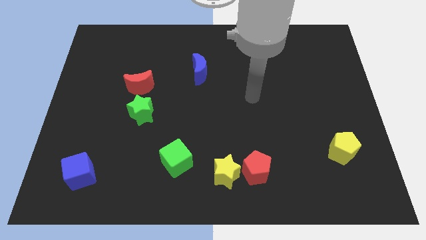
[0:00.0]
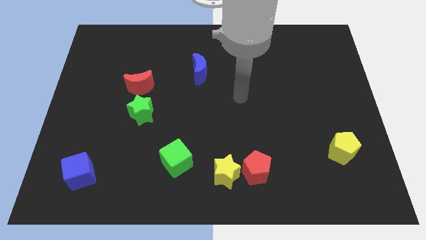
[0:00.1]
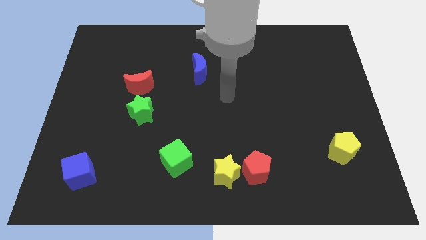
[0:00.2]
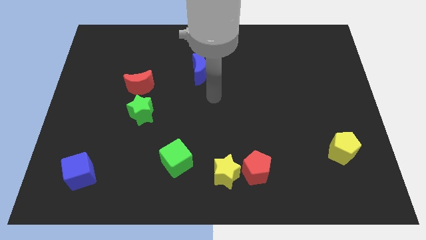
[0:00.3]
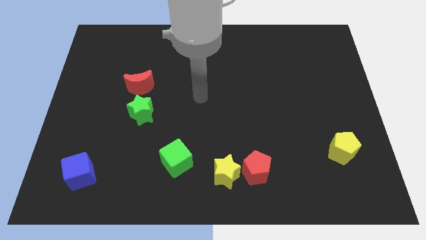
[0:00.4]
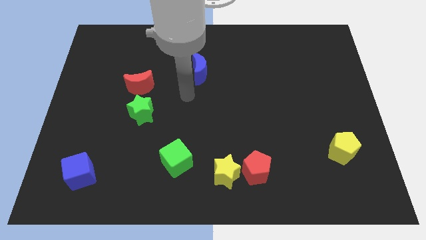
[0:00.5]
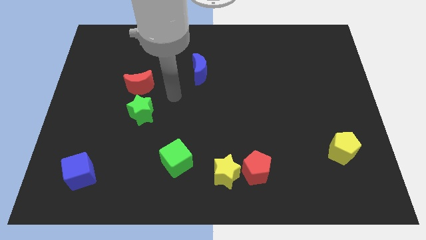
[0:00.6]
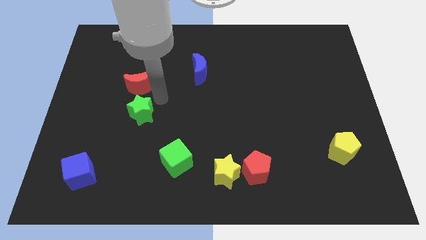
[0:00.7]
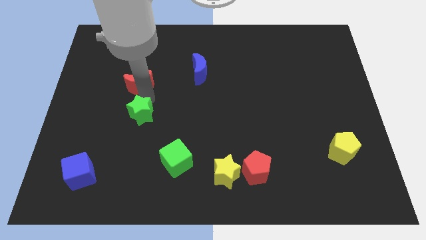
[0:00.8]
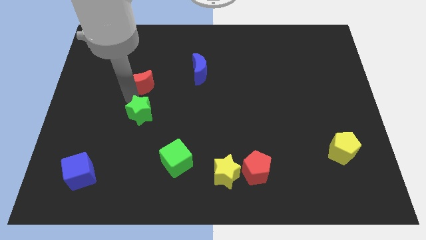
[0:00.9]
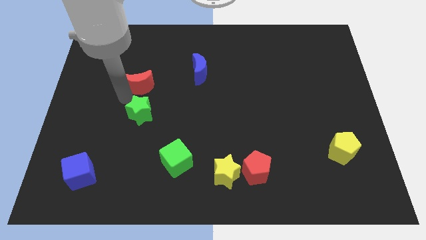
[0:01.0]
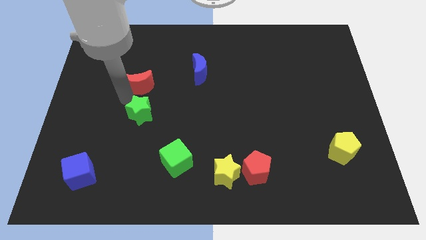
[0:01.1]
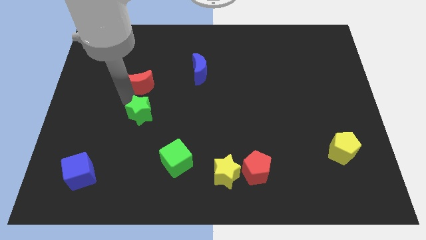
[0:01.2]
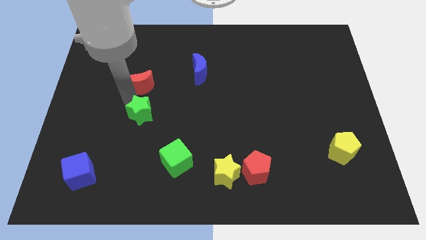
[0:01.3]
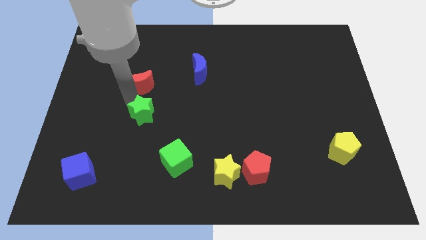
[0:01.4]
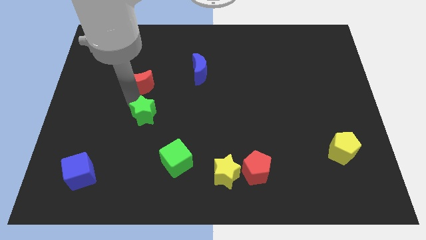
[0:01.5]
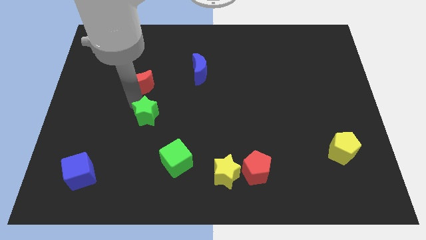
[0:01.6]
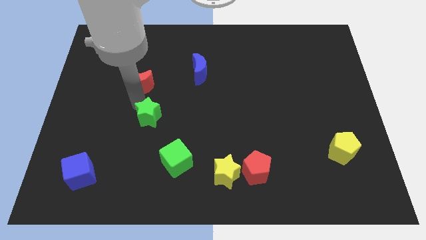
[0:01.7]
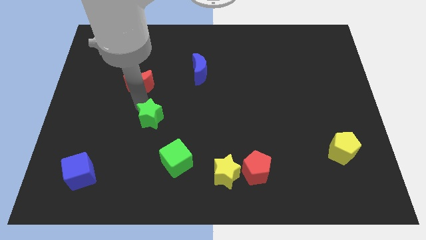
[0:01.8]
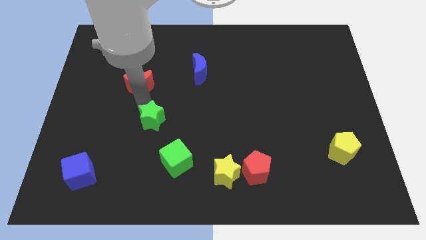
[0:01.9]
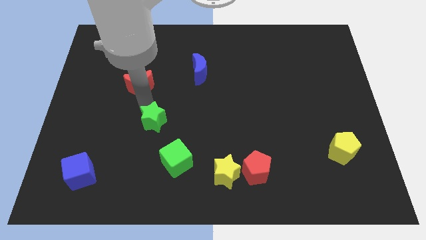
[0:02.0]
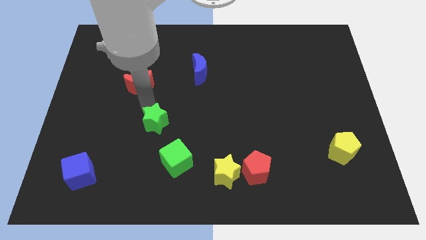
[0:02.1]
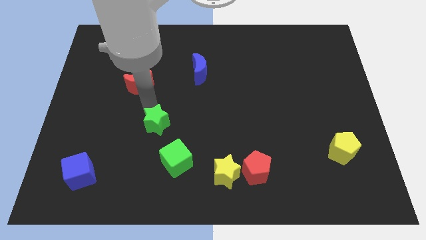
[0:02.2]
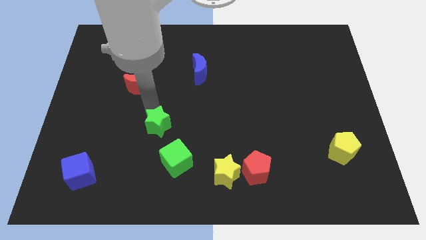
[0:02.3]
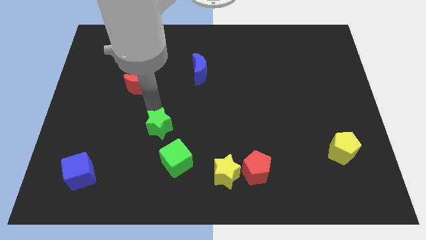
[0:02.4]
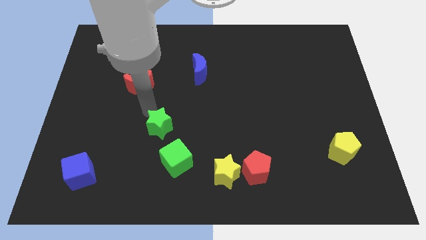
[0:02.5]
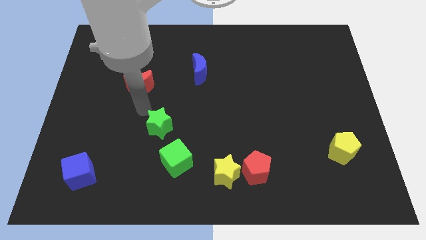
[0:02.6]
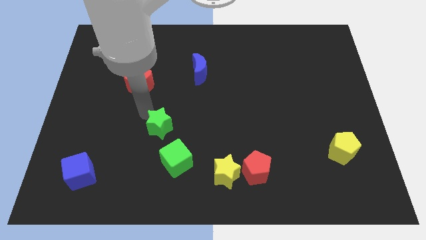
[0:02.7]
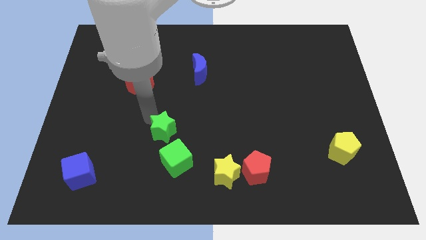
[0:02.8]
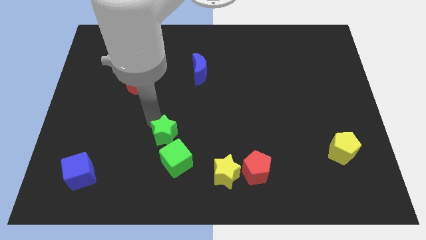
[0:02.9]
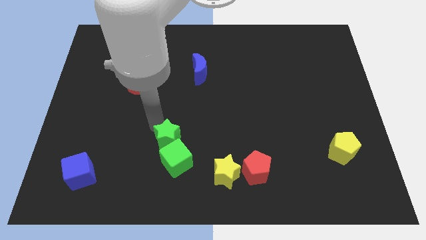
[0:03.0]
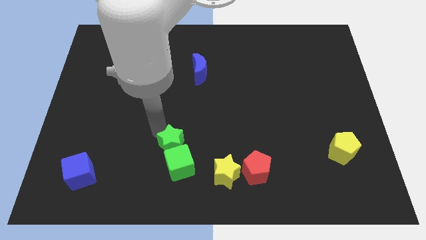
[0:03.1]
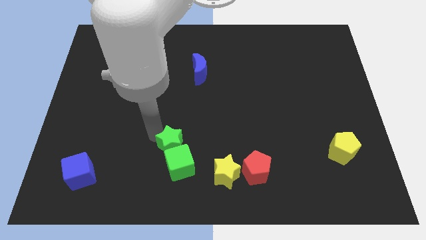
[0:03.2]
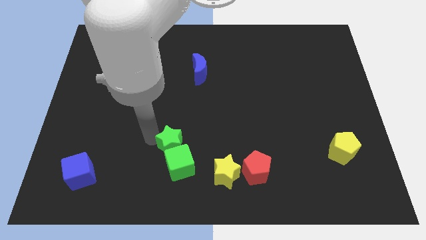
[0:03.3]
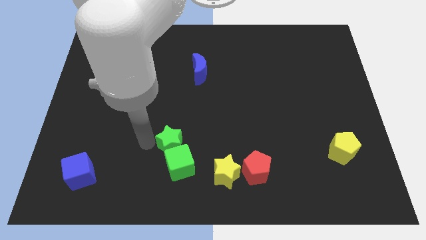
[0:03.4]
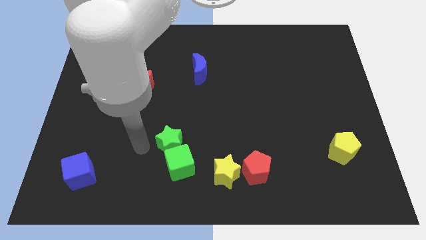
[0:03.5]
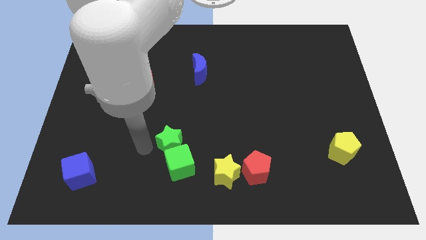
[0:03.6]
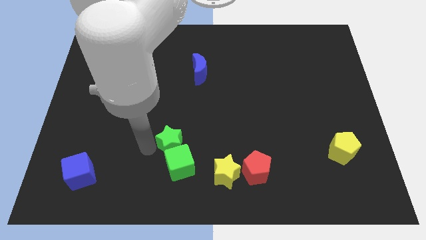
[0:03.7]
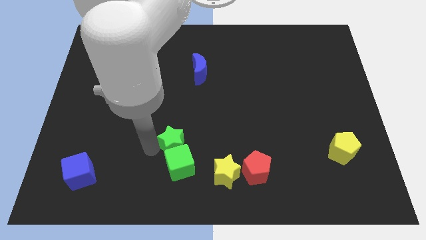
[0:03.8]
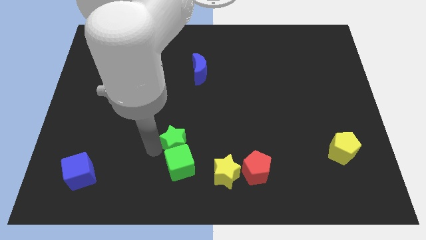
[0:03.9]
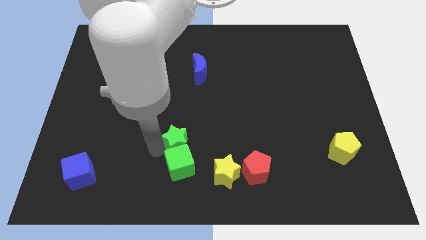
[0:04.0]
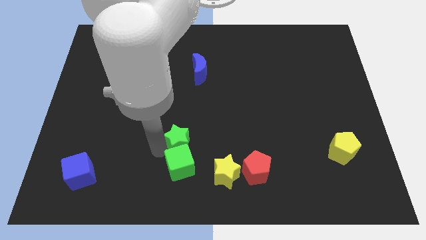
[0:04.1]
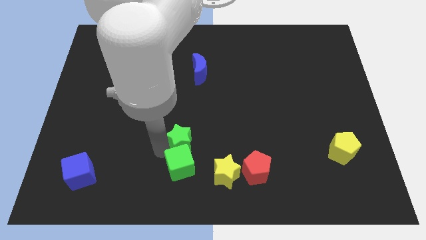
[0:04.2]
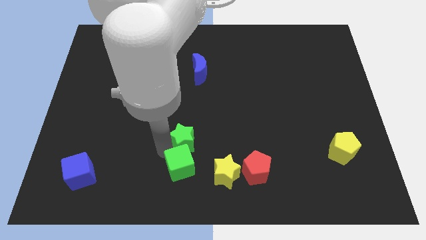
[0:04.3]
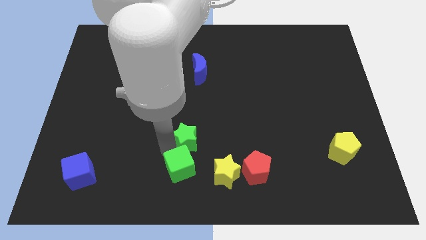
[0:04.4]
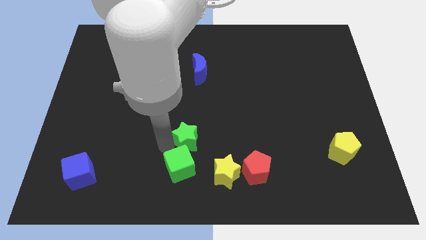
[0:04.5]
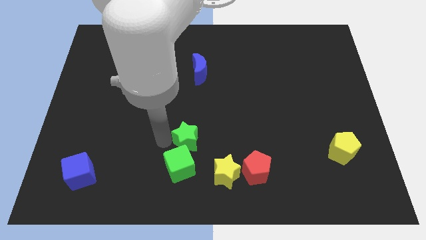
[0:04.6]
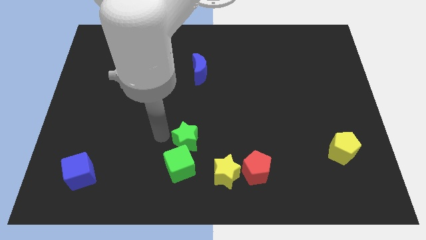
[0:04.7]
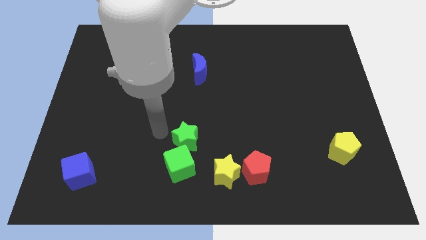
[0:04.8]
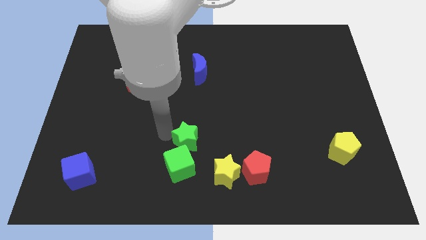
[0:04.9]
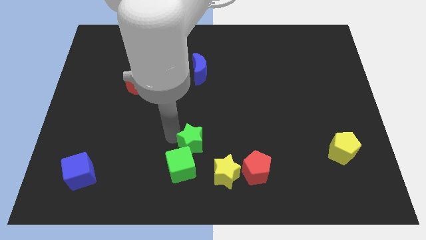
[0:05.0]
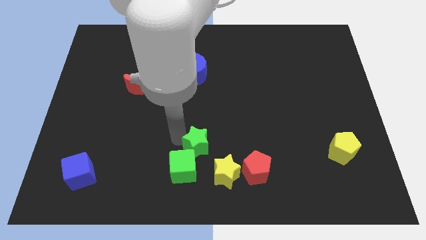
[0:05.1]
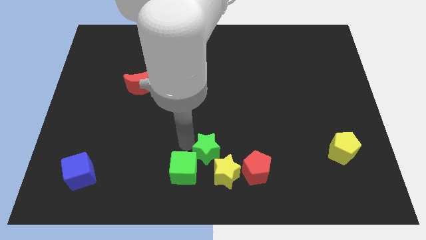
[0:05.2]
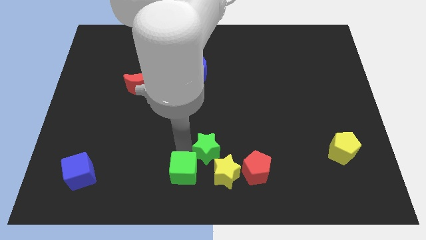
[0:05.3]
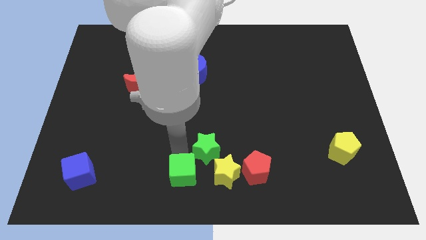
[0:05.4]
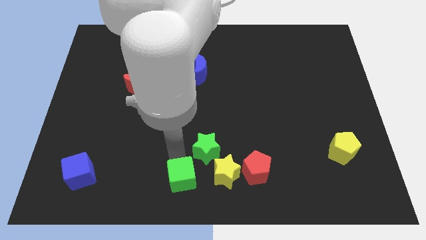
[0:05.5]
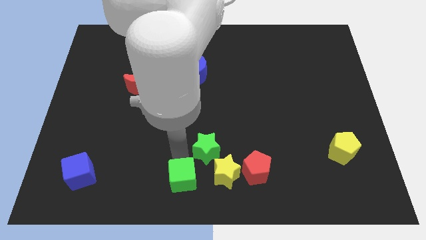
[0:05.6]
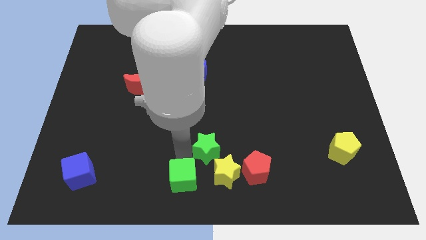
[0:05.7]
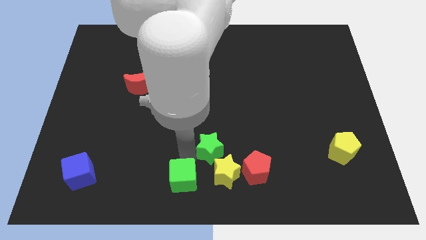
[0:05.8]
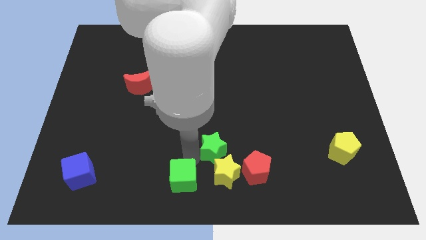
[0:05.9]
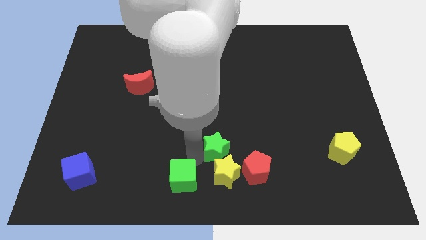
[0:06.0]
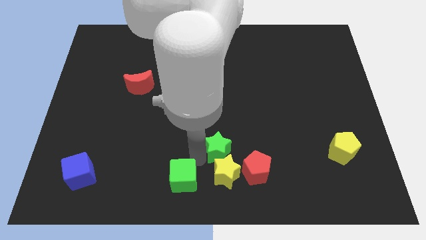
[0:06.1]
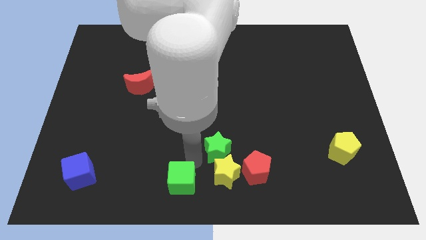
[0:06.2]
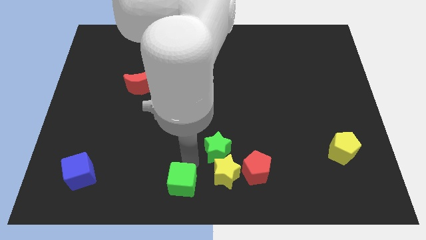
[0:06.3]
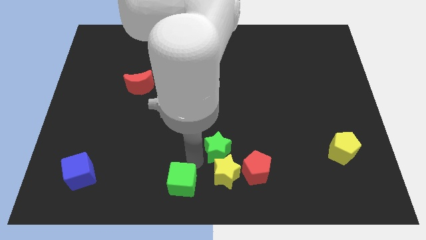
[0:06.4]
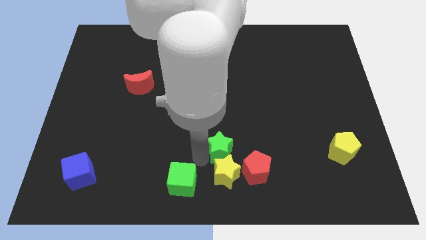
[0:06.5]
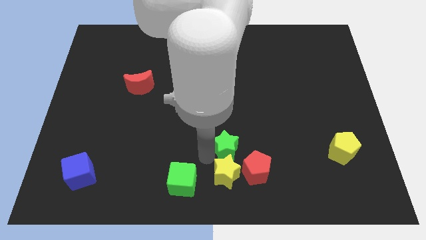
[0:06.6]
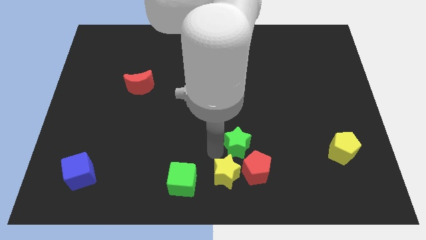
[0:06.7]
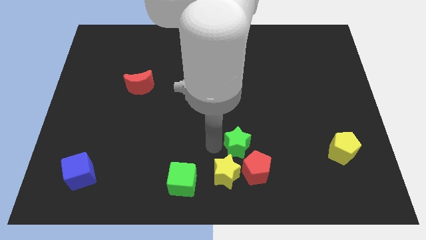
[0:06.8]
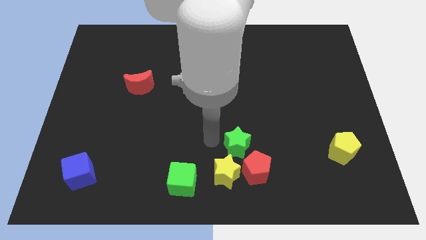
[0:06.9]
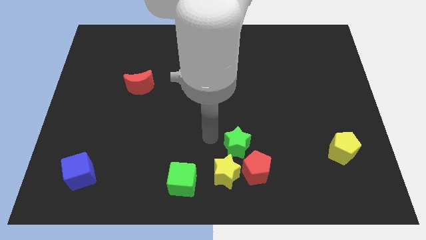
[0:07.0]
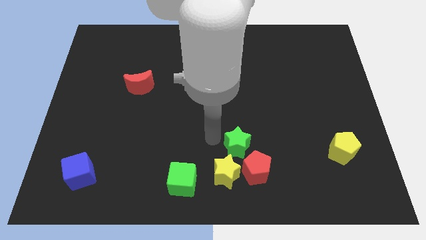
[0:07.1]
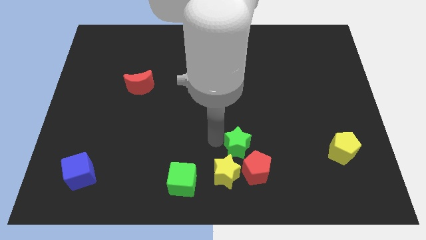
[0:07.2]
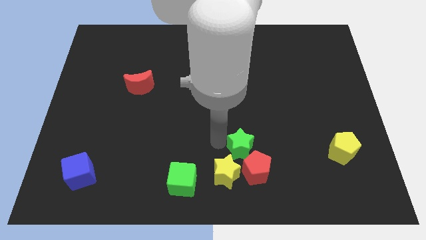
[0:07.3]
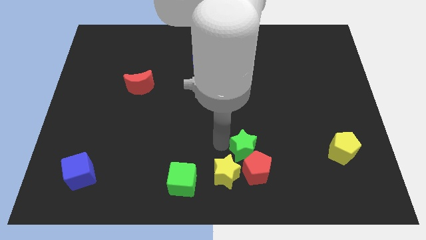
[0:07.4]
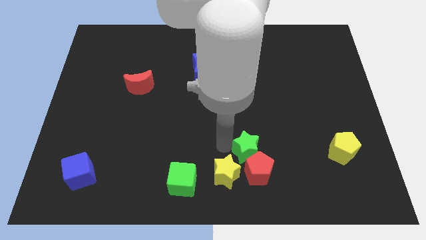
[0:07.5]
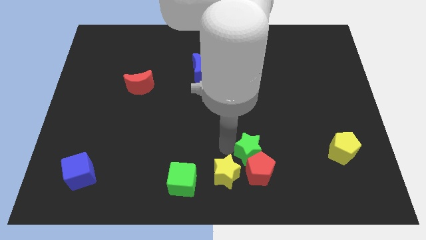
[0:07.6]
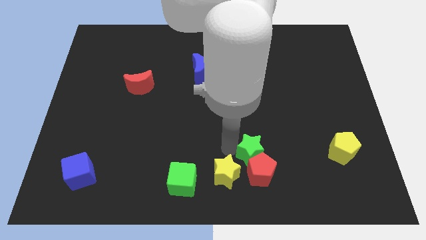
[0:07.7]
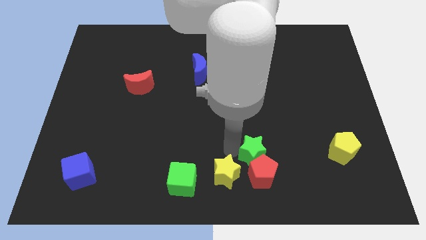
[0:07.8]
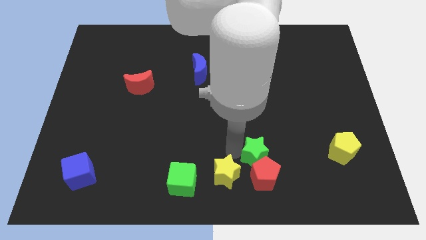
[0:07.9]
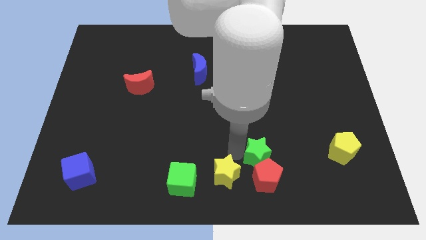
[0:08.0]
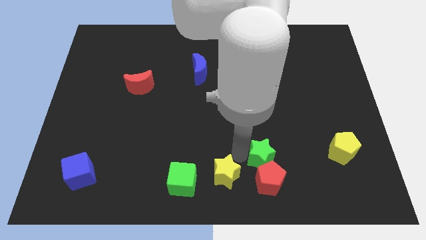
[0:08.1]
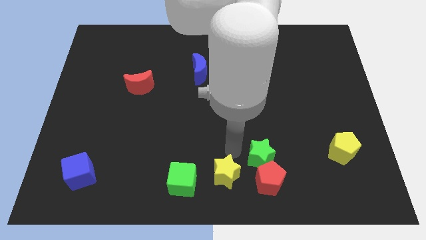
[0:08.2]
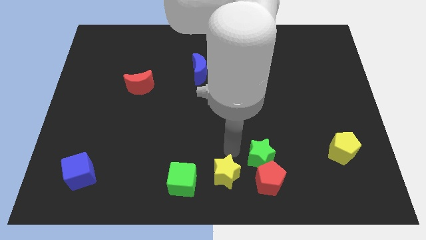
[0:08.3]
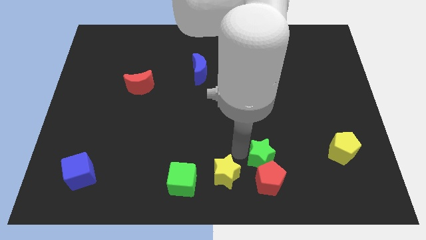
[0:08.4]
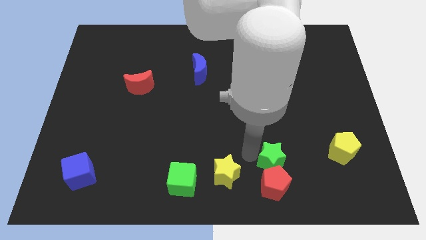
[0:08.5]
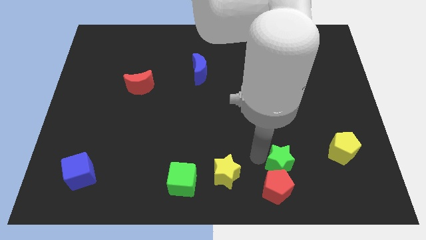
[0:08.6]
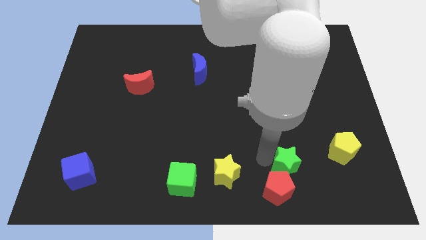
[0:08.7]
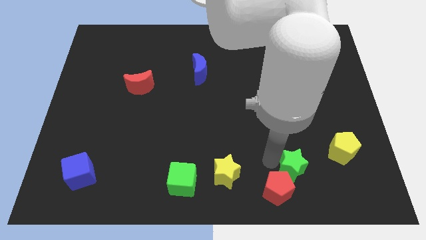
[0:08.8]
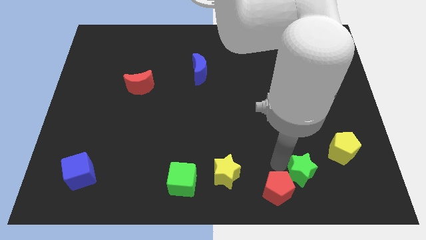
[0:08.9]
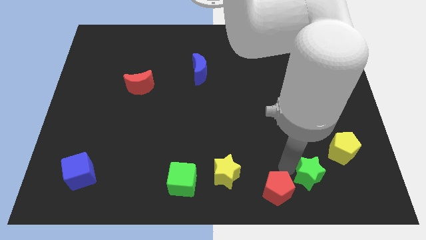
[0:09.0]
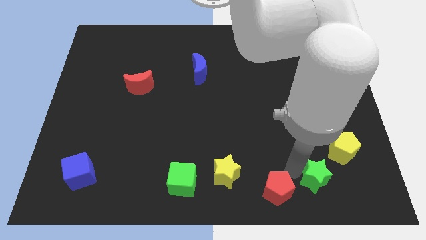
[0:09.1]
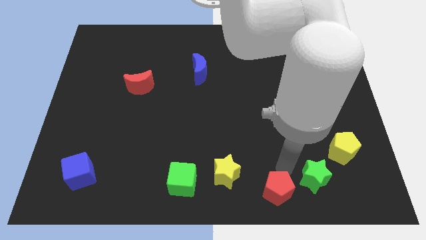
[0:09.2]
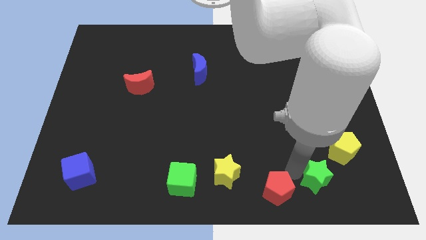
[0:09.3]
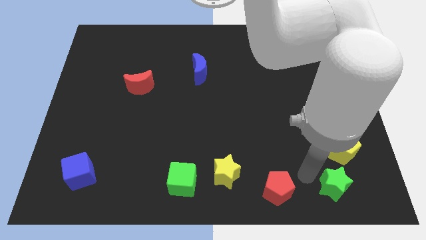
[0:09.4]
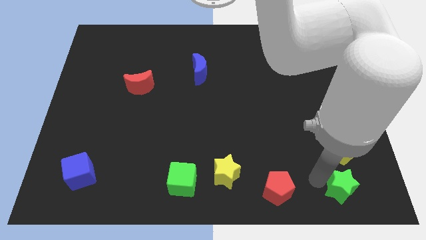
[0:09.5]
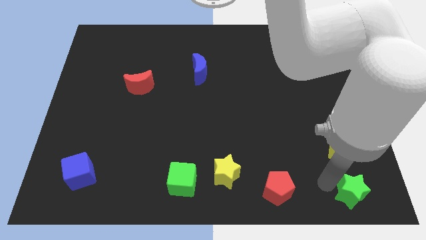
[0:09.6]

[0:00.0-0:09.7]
push the green star to the lower right corner
